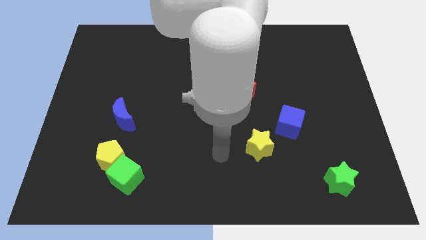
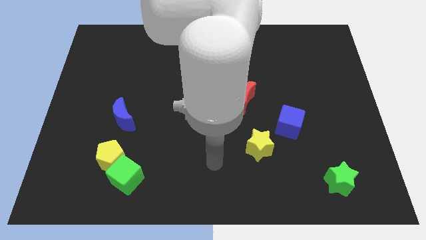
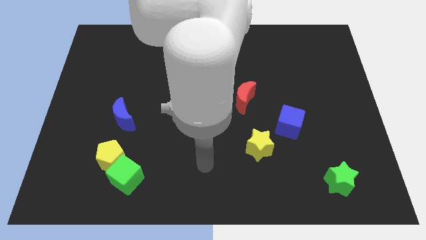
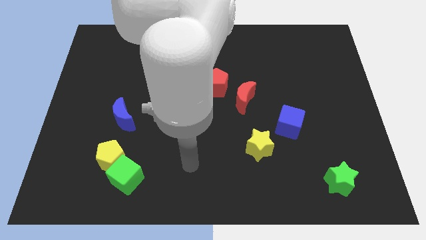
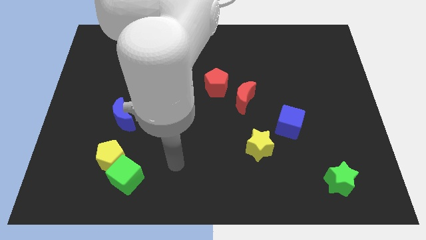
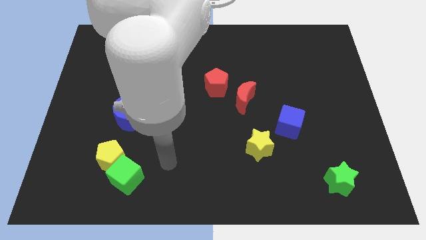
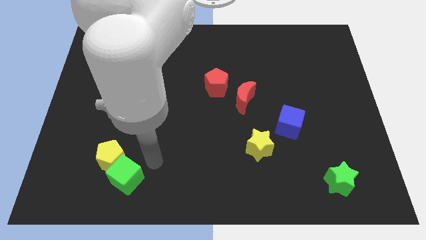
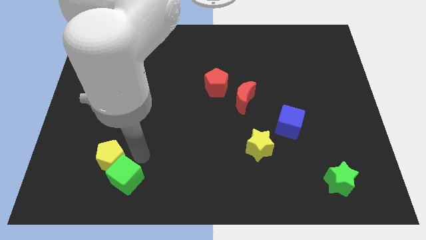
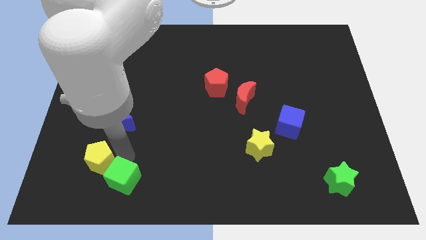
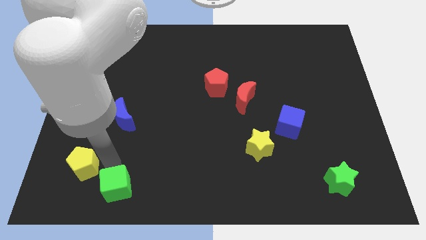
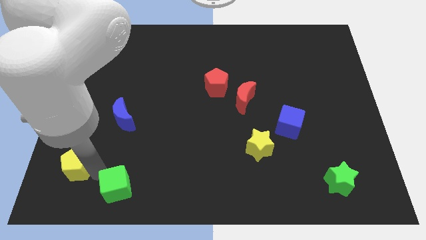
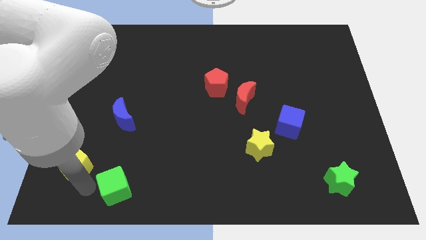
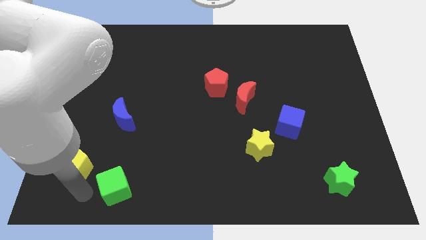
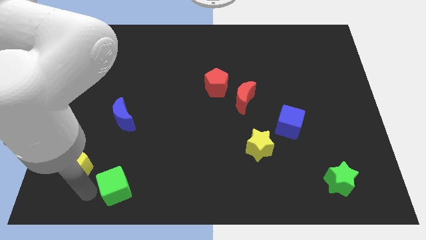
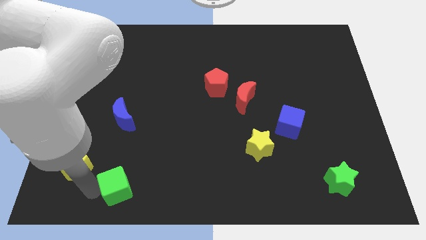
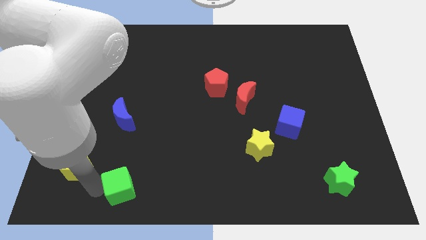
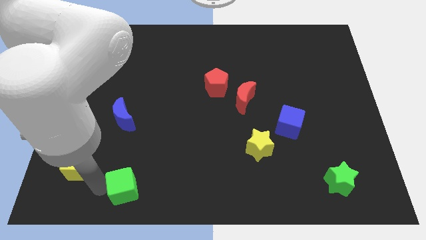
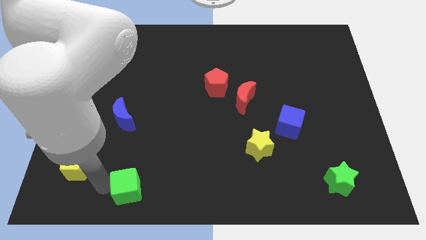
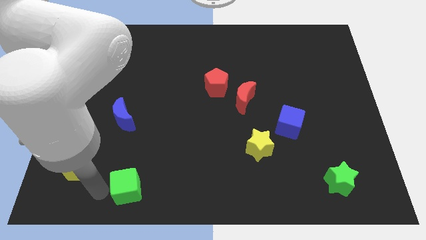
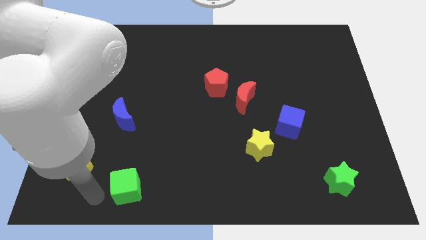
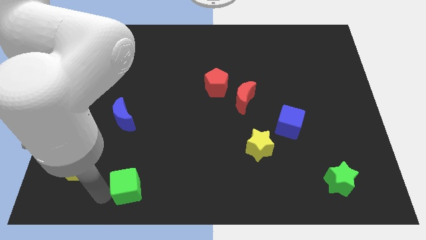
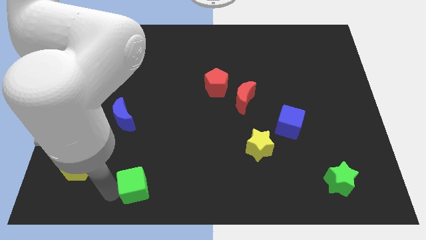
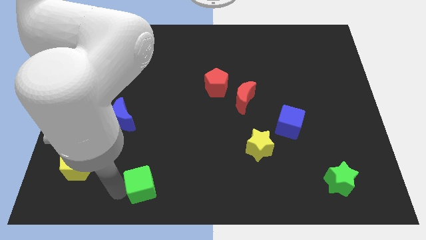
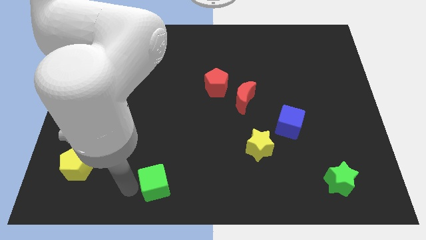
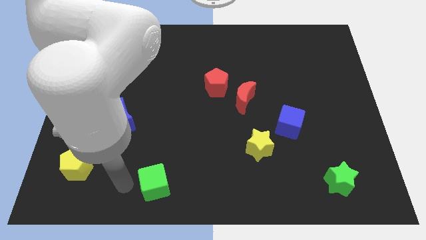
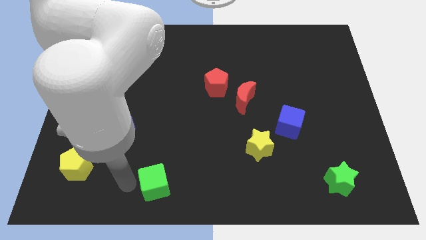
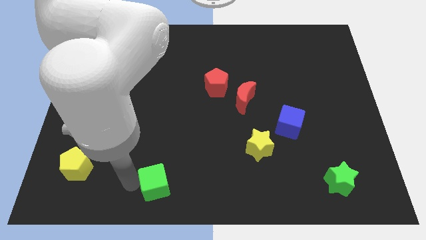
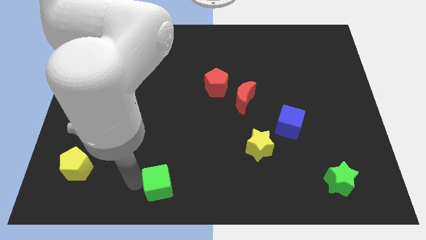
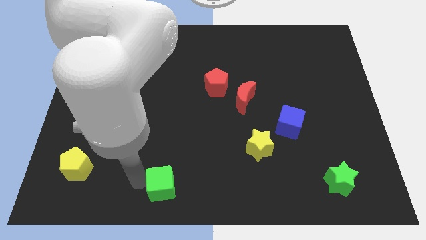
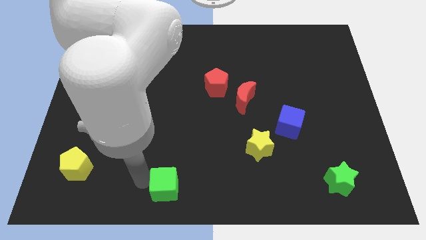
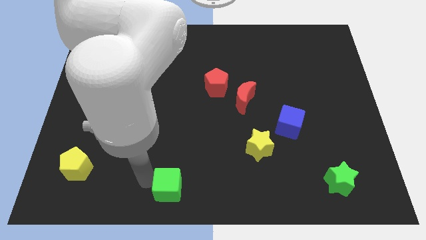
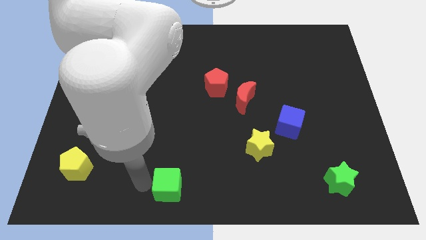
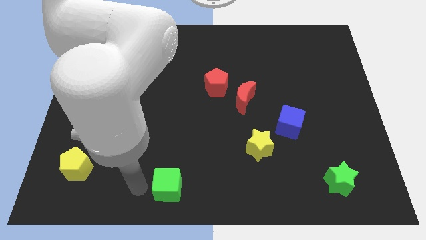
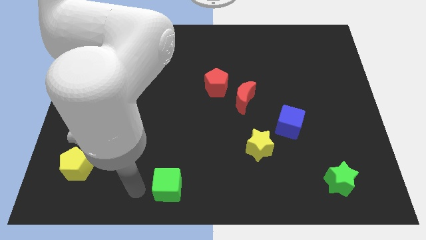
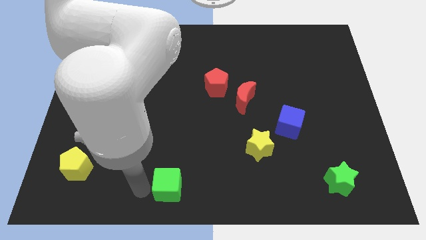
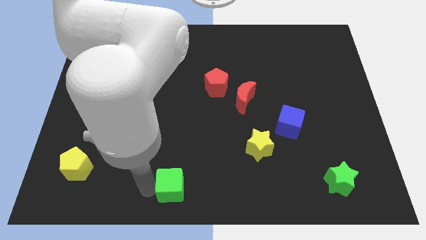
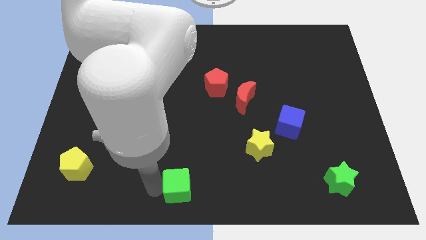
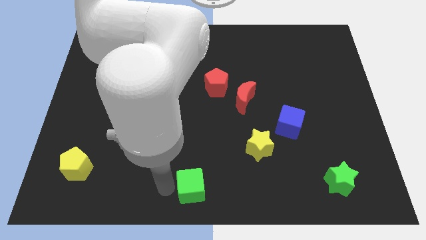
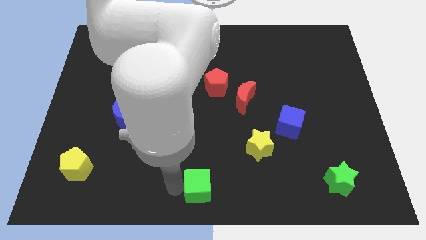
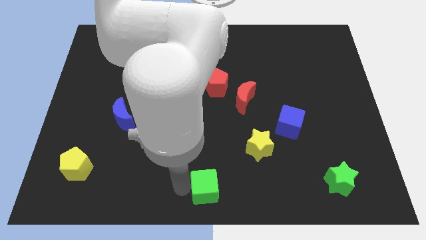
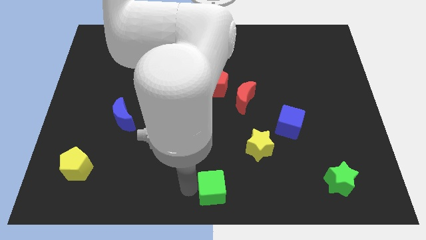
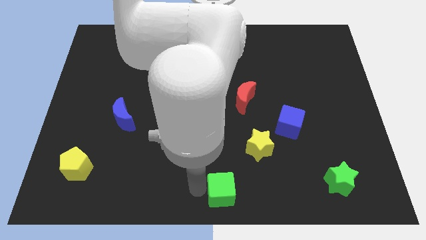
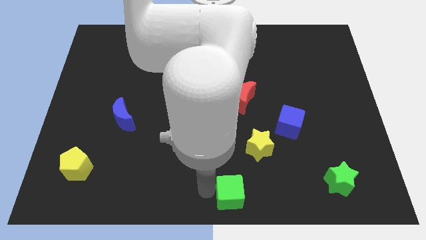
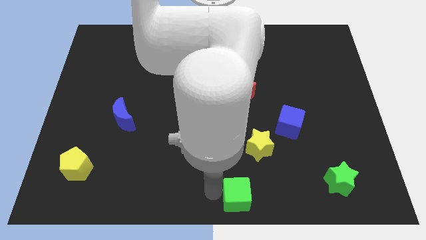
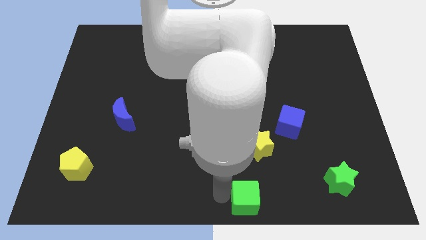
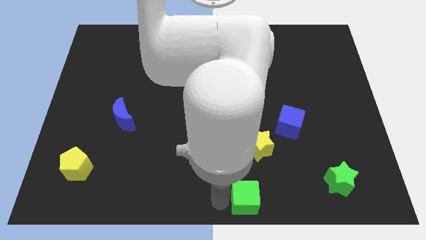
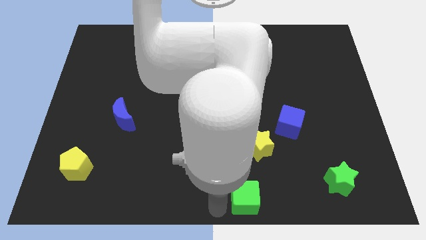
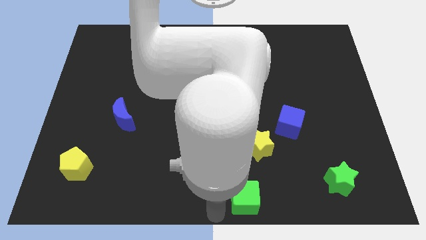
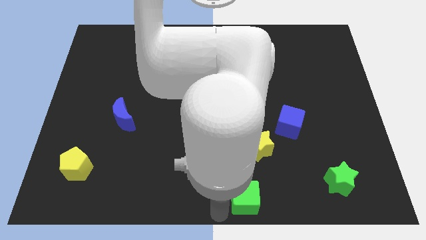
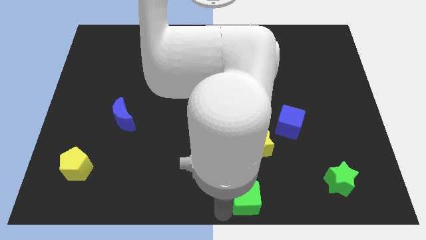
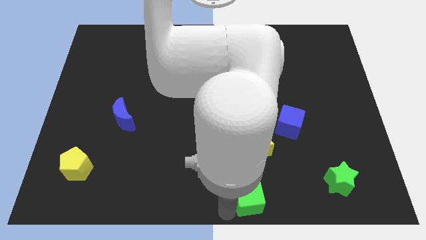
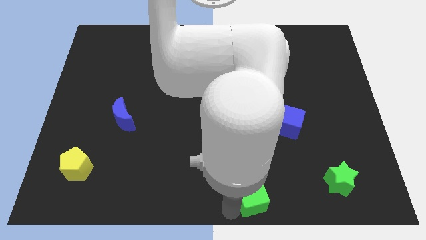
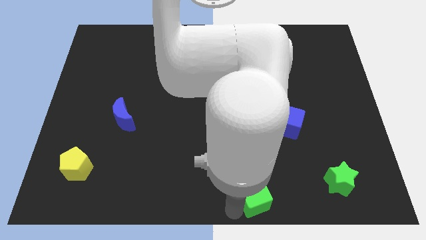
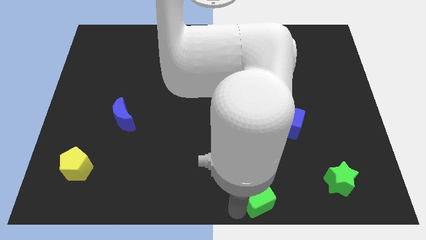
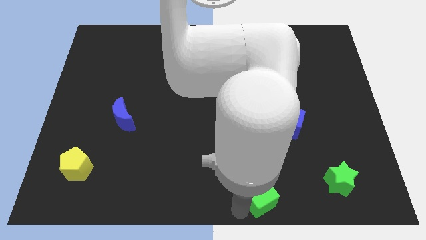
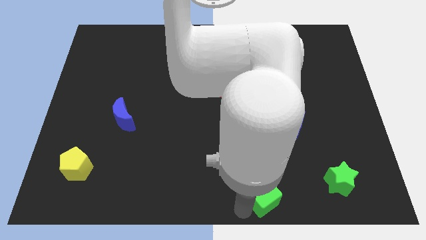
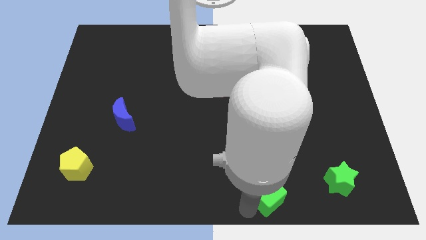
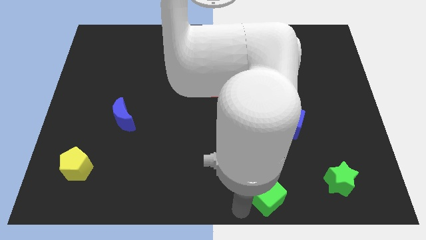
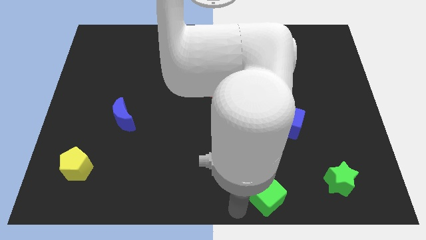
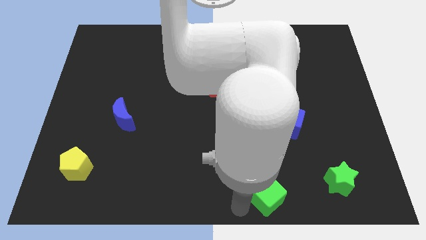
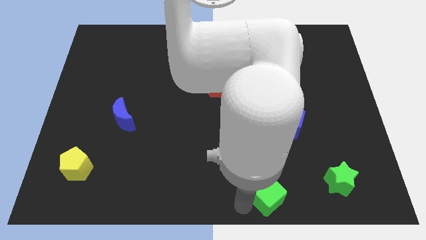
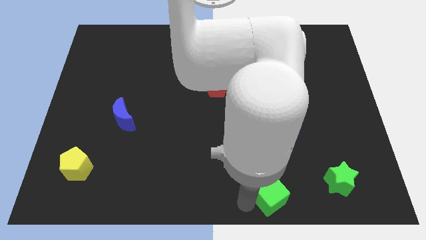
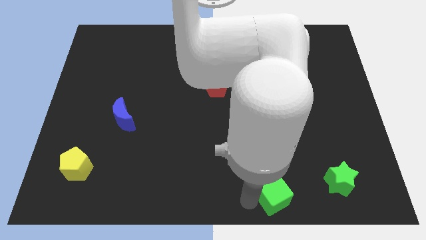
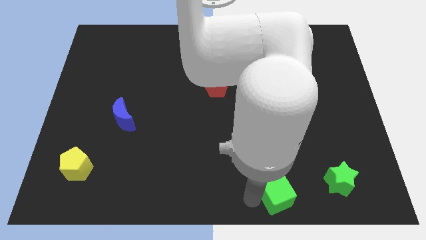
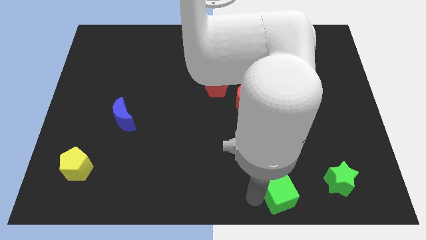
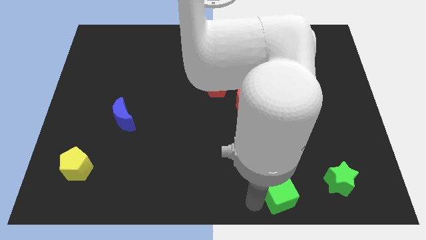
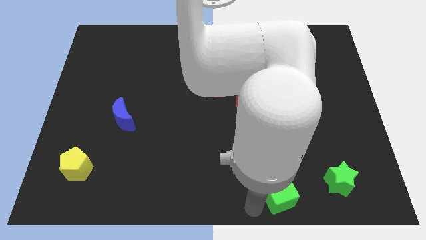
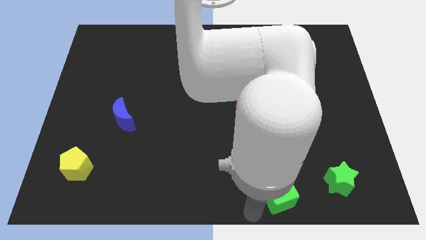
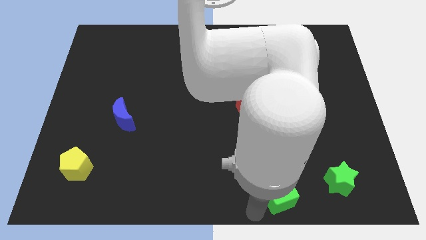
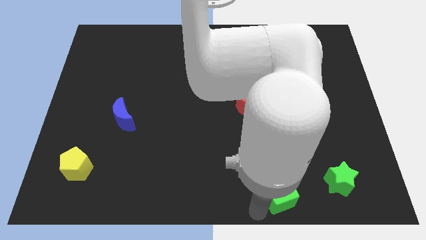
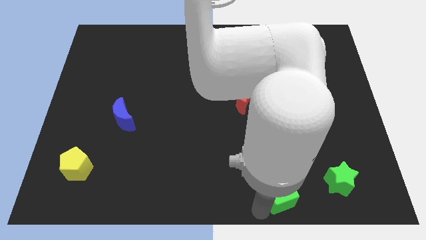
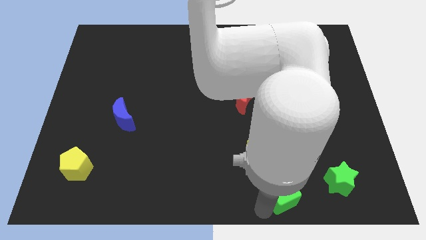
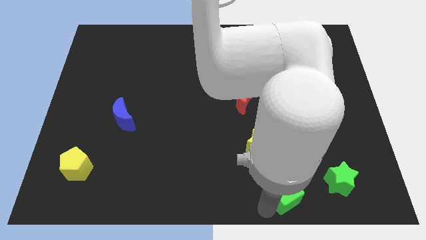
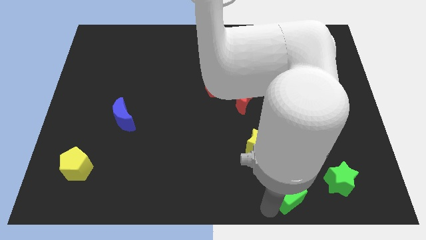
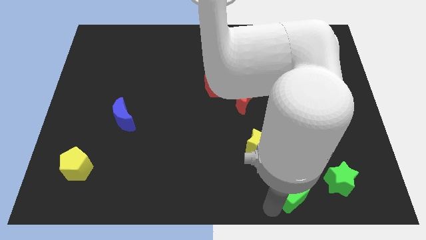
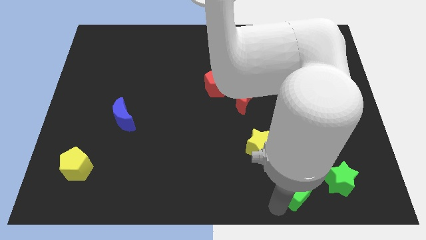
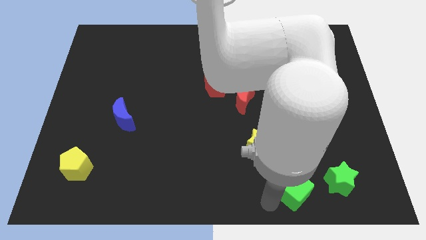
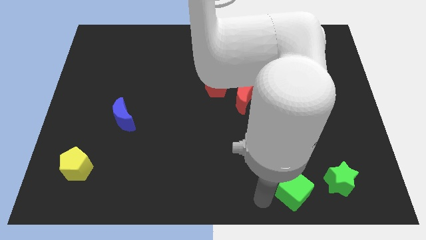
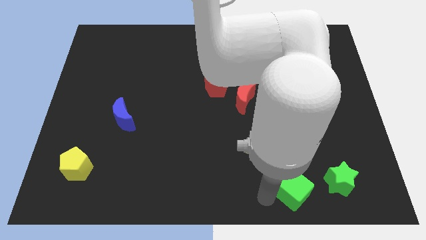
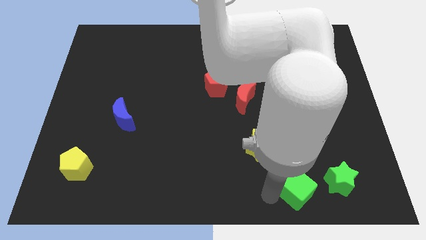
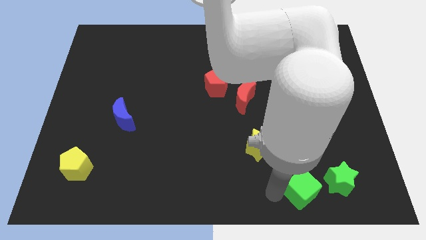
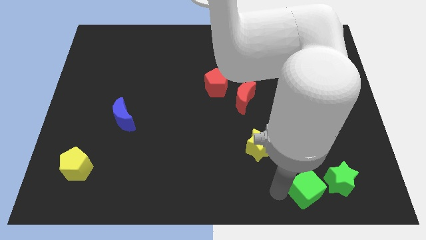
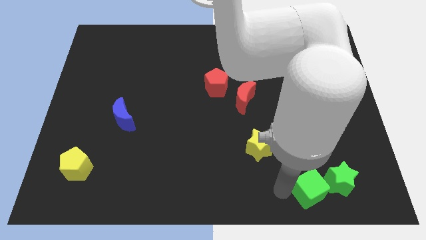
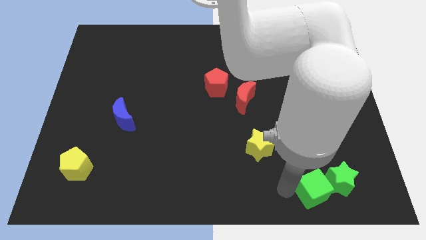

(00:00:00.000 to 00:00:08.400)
move the green cube close to the green star
